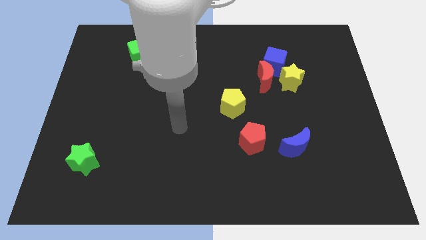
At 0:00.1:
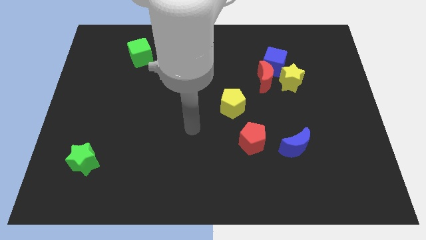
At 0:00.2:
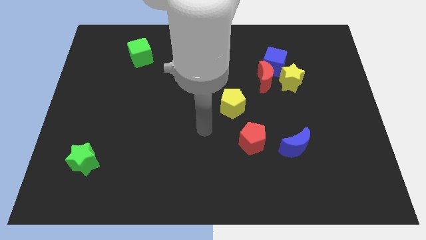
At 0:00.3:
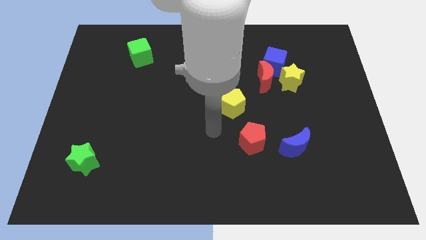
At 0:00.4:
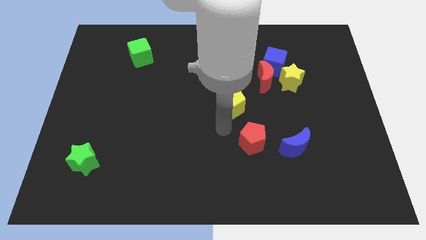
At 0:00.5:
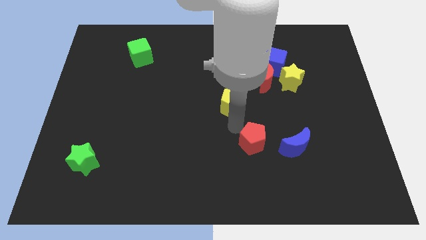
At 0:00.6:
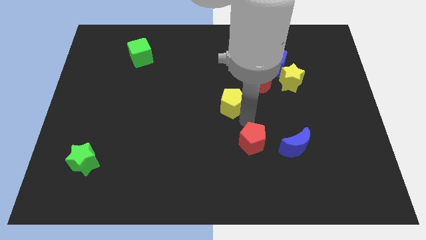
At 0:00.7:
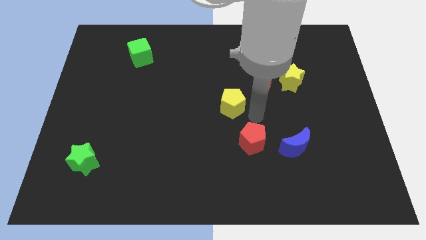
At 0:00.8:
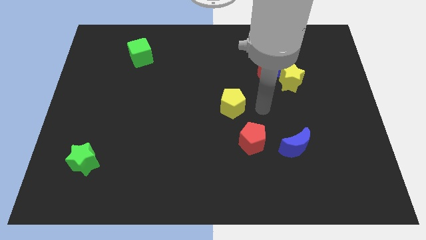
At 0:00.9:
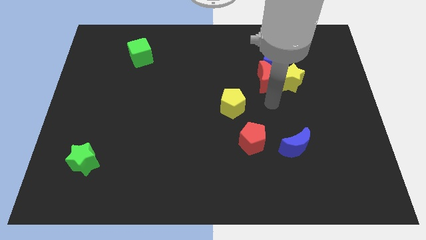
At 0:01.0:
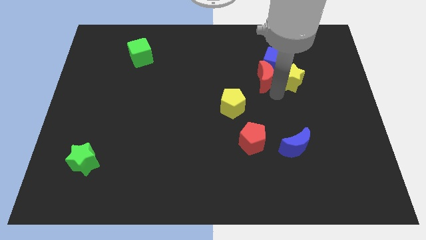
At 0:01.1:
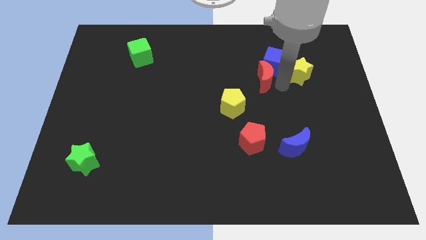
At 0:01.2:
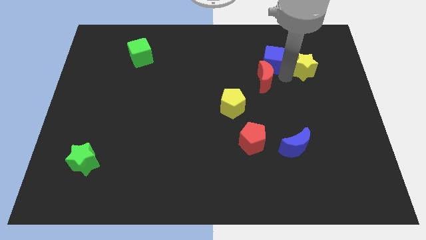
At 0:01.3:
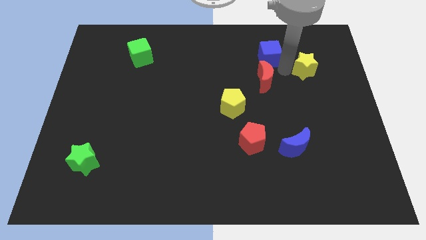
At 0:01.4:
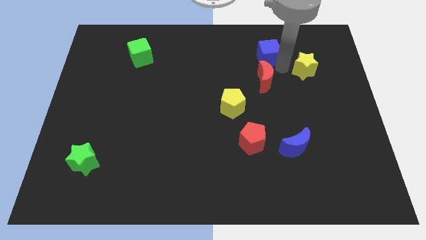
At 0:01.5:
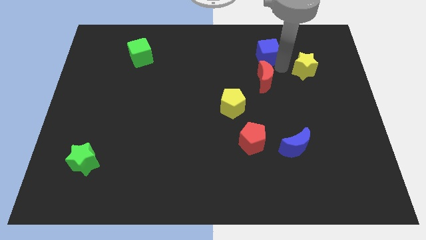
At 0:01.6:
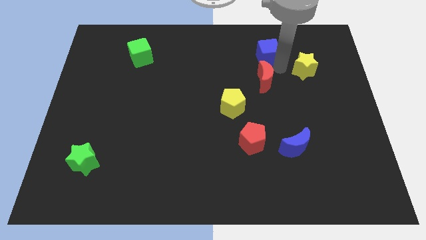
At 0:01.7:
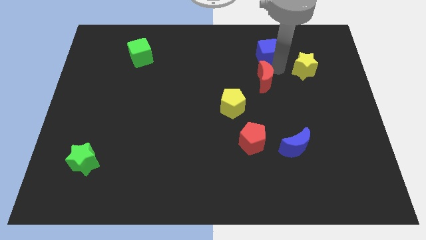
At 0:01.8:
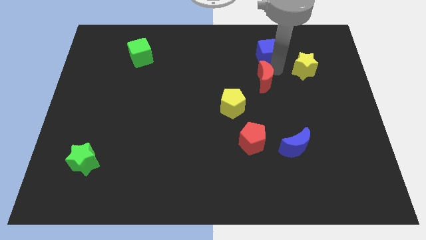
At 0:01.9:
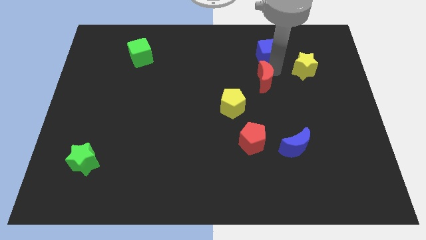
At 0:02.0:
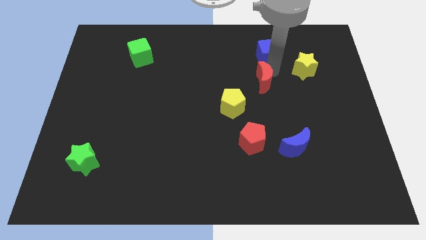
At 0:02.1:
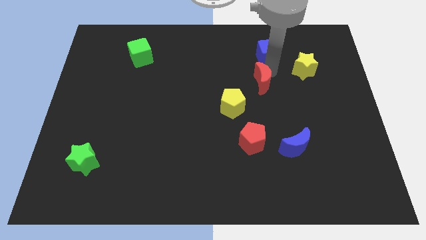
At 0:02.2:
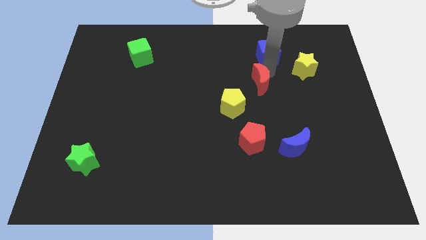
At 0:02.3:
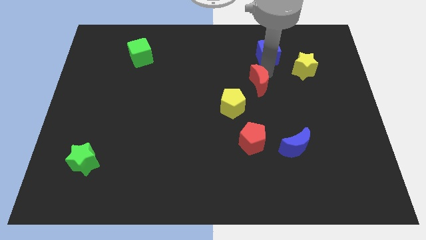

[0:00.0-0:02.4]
move the red moon away from the blue cube and yellow star

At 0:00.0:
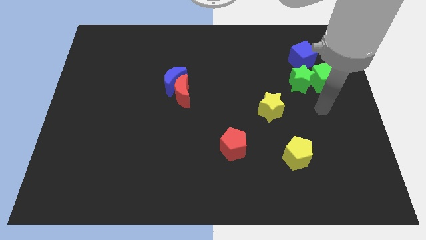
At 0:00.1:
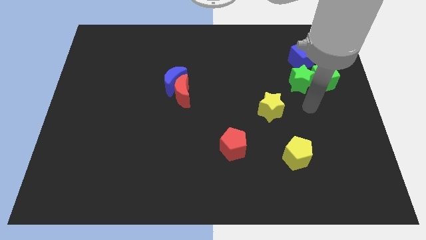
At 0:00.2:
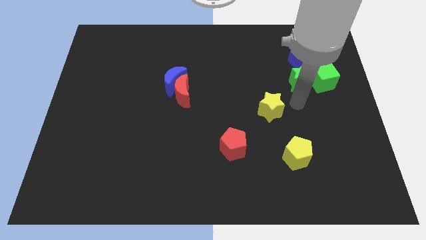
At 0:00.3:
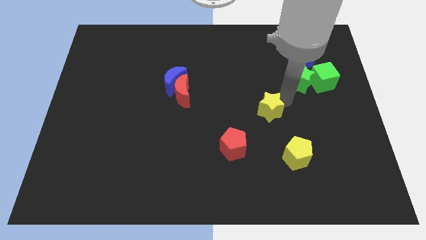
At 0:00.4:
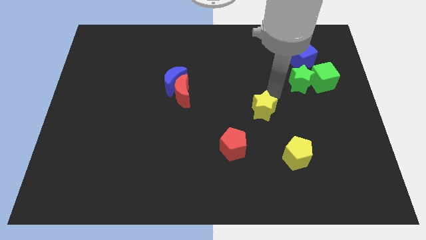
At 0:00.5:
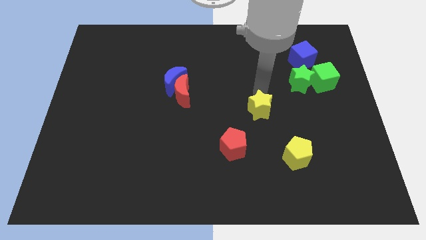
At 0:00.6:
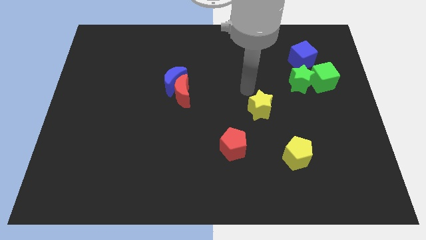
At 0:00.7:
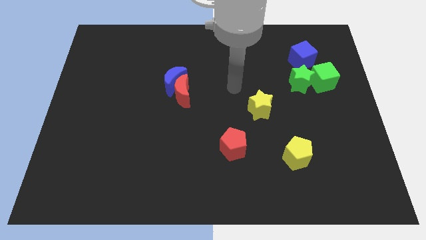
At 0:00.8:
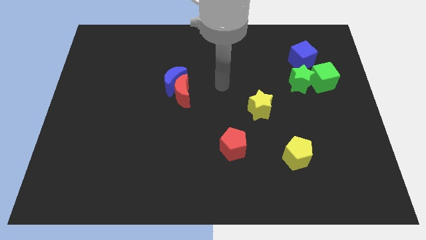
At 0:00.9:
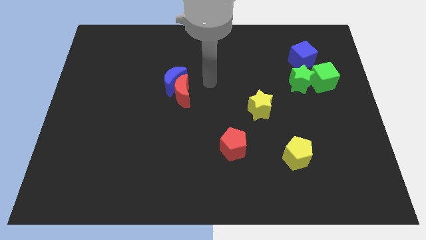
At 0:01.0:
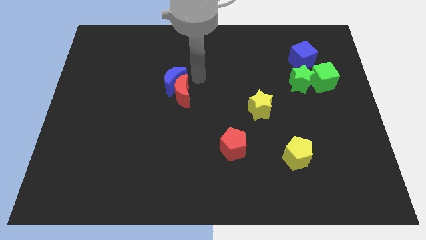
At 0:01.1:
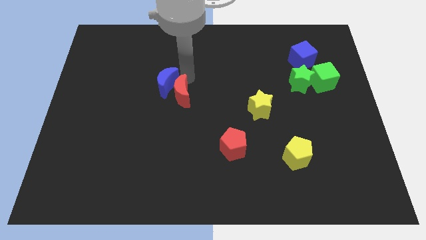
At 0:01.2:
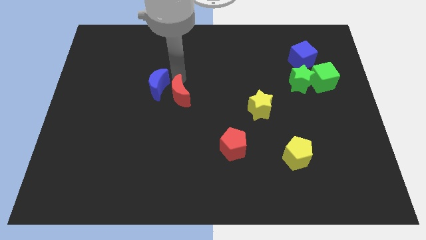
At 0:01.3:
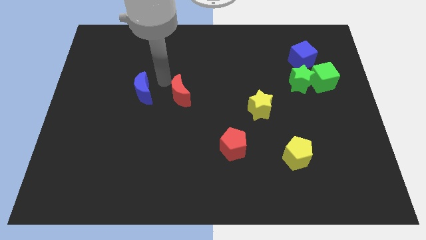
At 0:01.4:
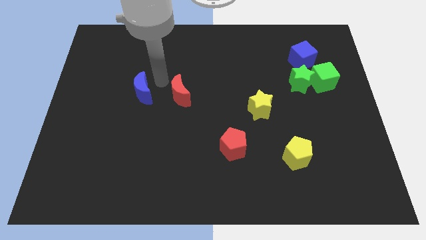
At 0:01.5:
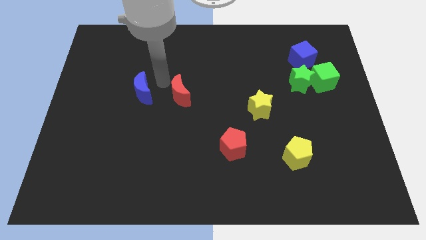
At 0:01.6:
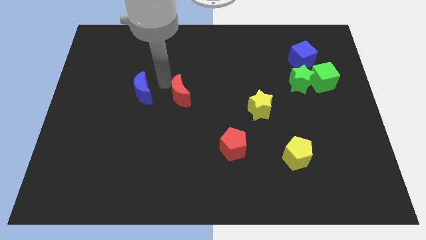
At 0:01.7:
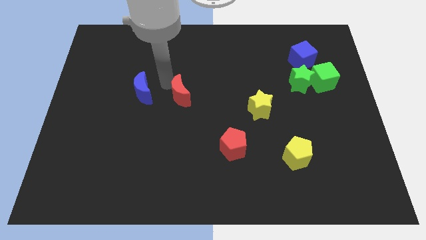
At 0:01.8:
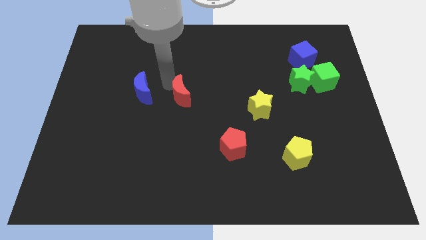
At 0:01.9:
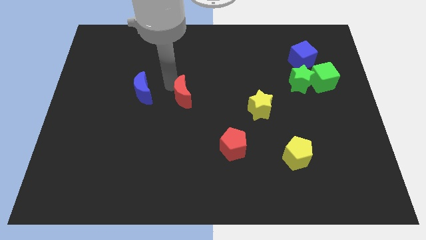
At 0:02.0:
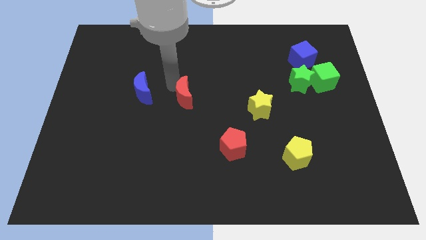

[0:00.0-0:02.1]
pull the red moon apart from the blue moon

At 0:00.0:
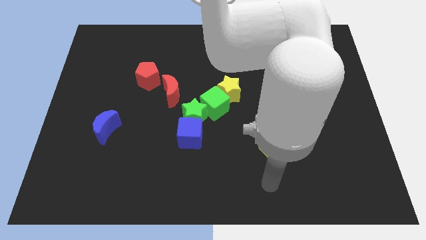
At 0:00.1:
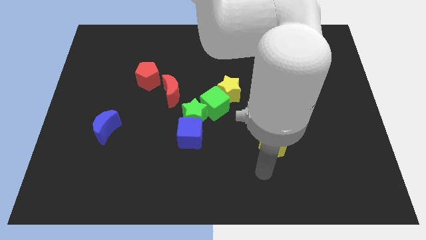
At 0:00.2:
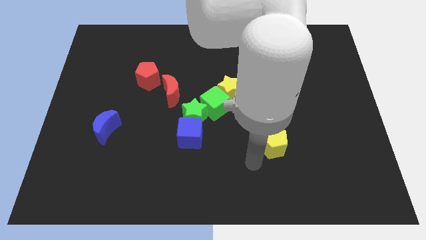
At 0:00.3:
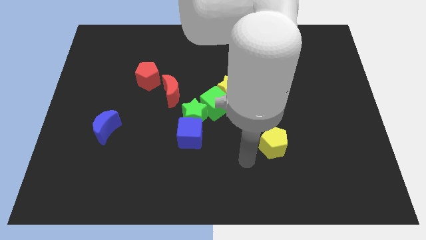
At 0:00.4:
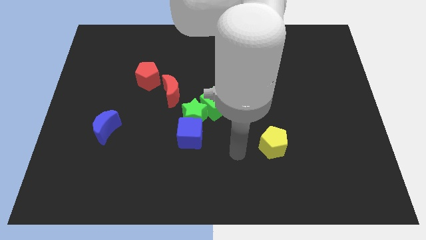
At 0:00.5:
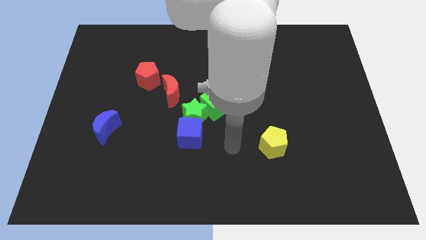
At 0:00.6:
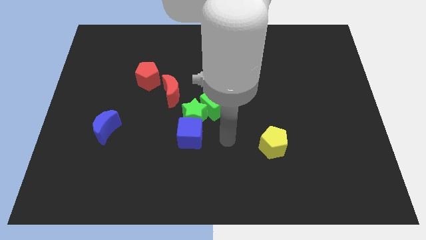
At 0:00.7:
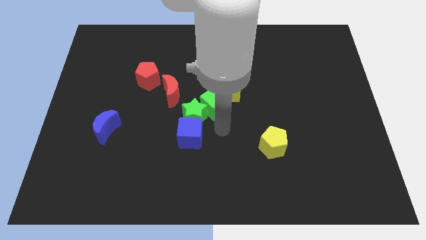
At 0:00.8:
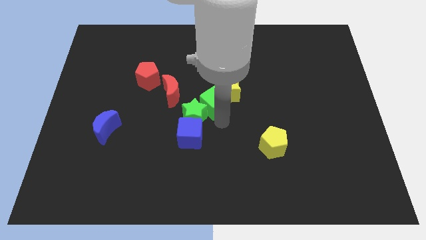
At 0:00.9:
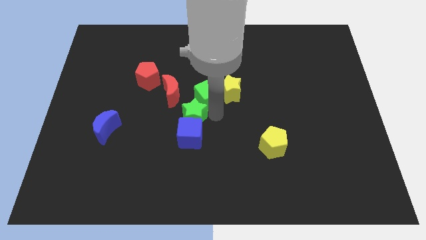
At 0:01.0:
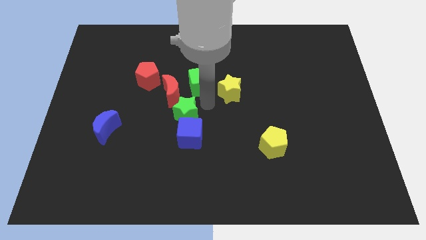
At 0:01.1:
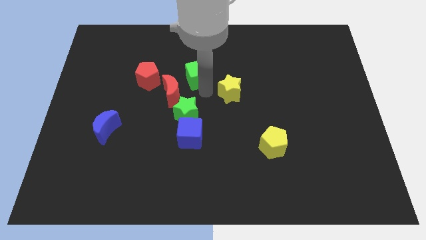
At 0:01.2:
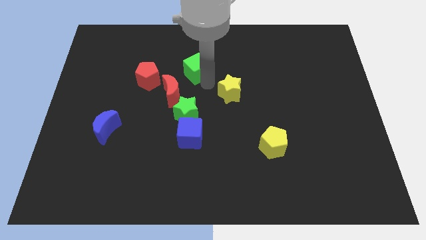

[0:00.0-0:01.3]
pull the yellow star apart from the green cube

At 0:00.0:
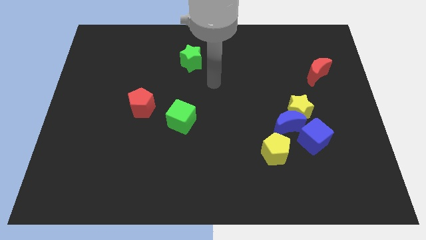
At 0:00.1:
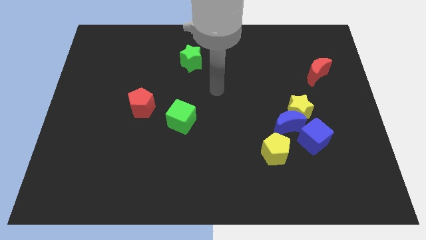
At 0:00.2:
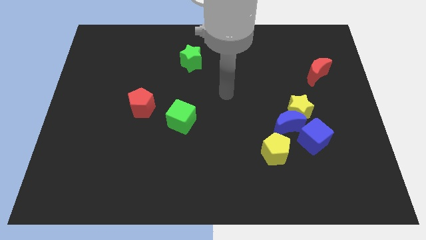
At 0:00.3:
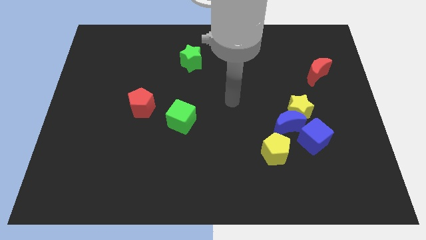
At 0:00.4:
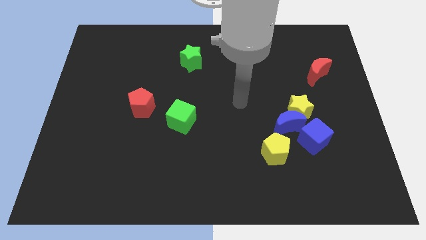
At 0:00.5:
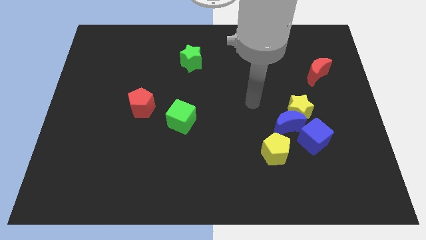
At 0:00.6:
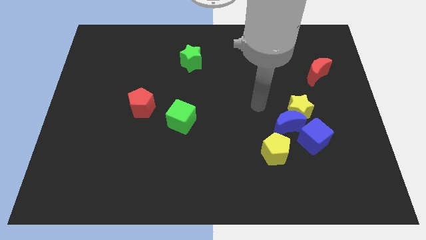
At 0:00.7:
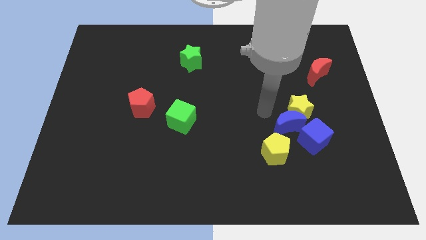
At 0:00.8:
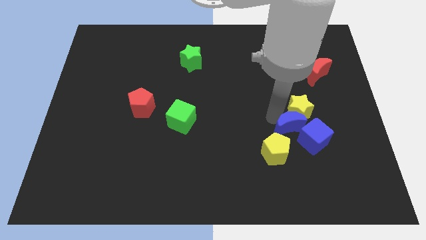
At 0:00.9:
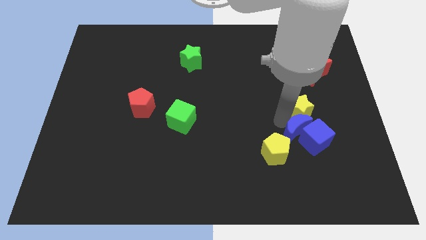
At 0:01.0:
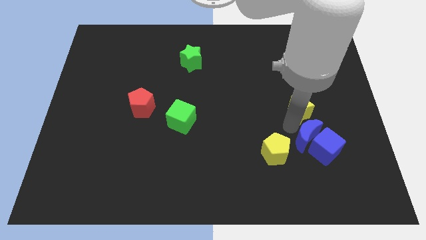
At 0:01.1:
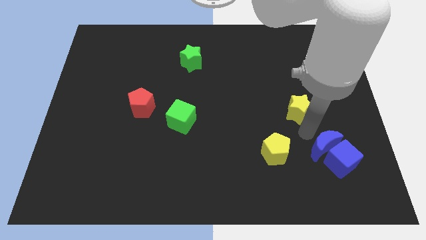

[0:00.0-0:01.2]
move the yellow star away from the blue moon and blue cube

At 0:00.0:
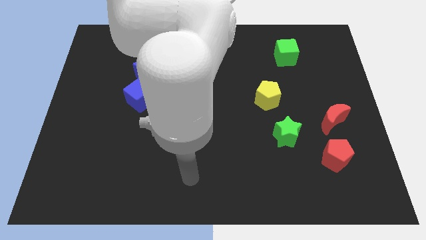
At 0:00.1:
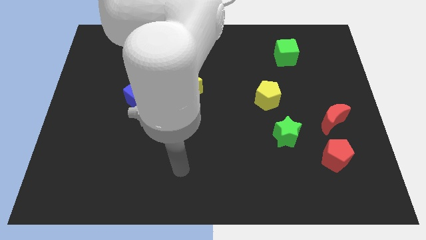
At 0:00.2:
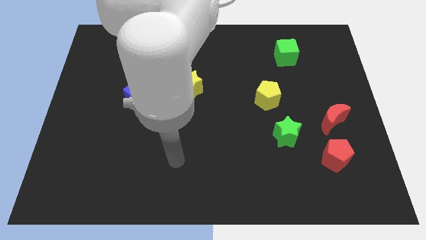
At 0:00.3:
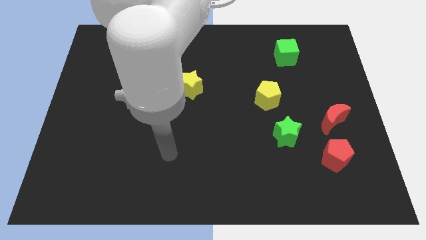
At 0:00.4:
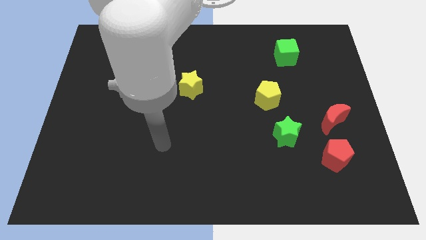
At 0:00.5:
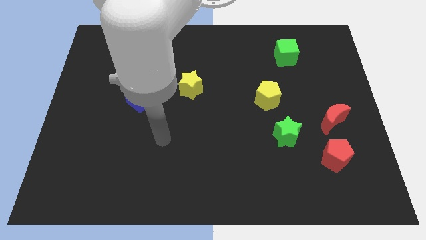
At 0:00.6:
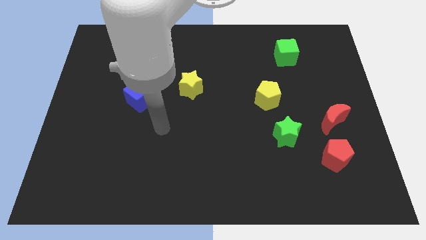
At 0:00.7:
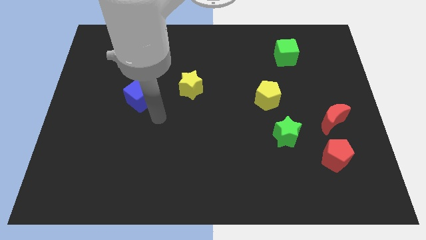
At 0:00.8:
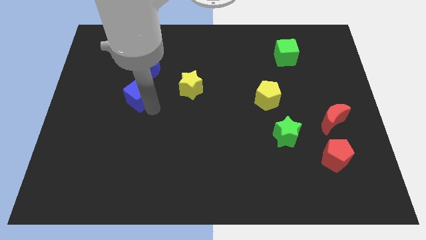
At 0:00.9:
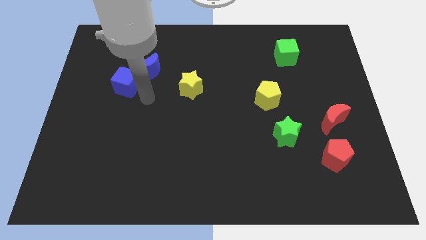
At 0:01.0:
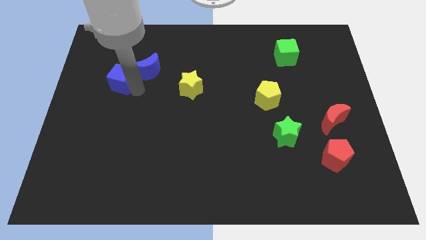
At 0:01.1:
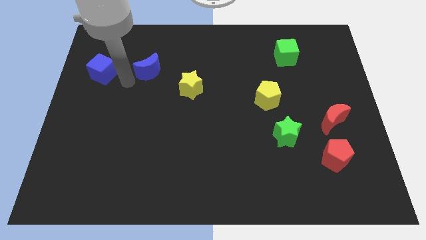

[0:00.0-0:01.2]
separate the blue moon from the blue cube

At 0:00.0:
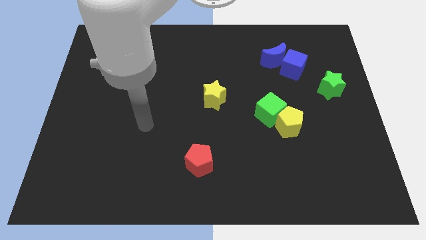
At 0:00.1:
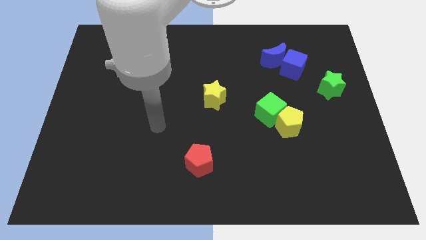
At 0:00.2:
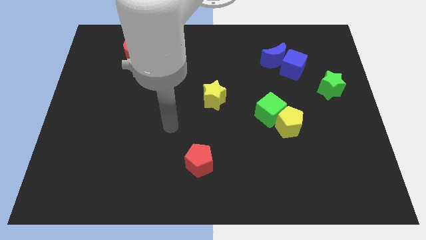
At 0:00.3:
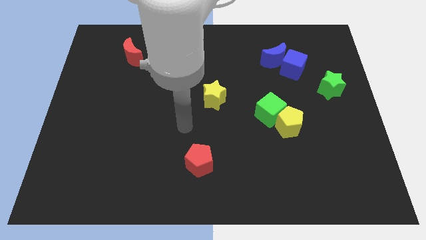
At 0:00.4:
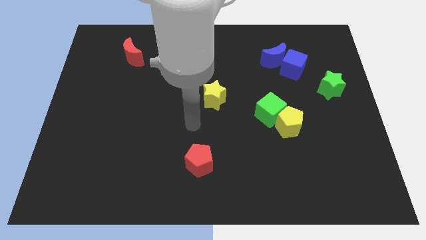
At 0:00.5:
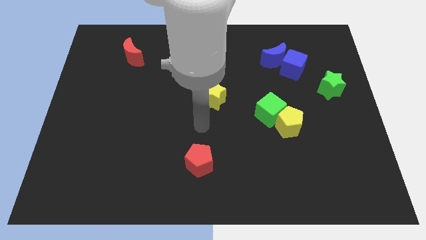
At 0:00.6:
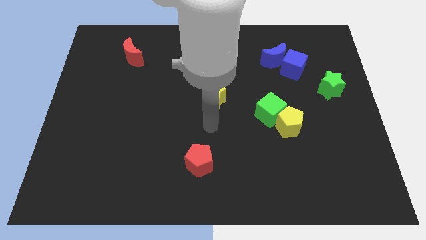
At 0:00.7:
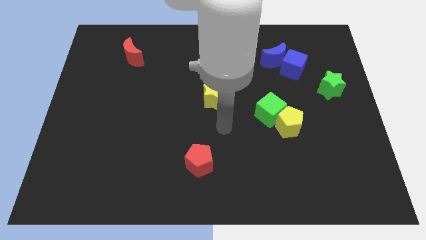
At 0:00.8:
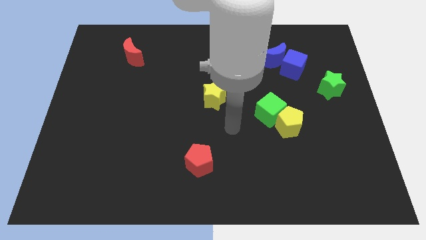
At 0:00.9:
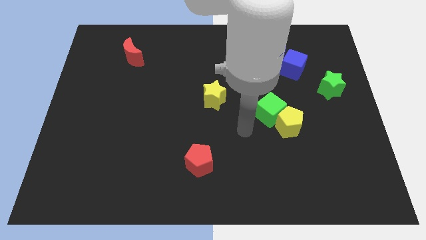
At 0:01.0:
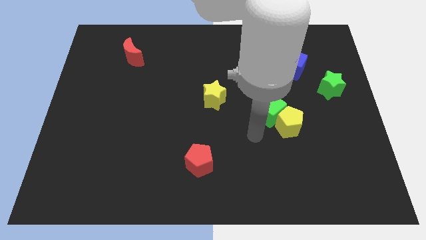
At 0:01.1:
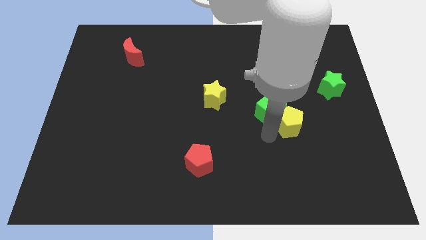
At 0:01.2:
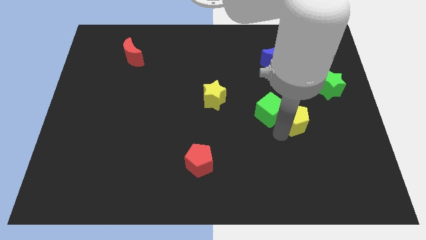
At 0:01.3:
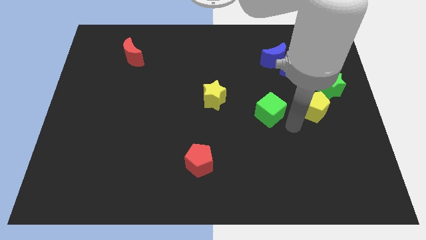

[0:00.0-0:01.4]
move the green cube away from the yellow pentagon
